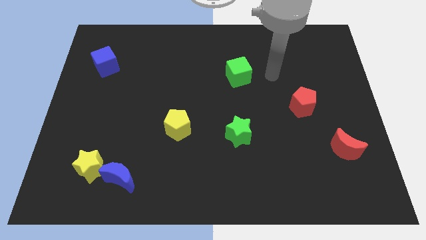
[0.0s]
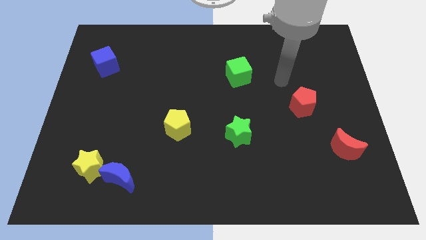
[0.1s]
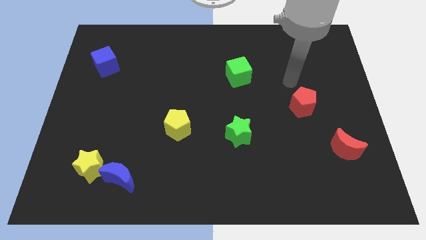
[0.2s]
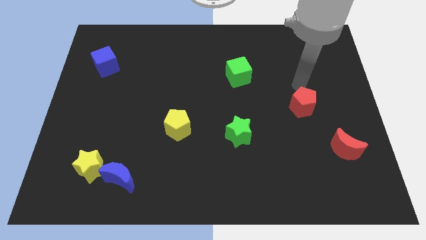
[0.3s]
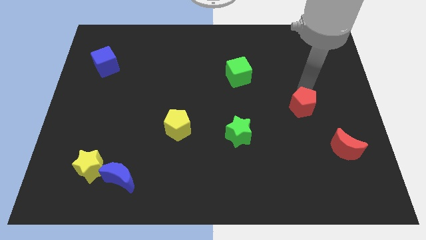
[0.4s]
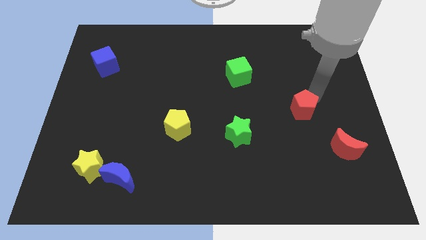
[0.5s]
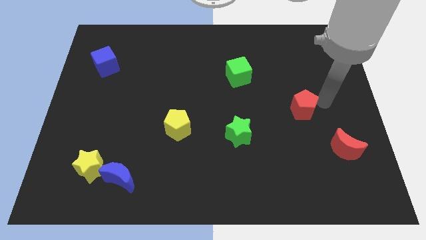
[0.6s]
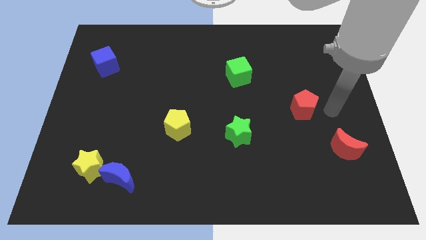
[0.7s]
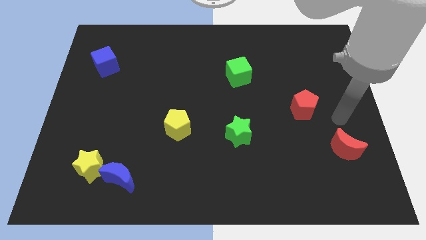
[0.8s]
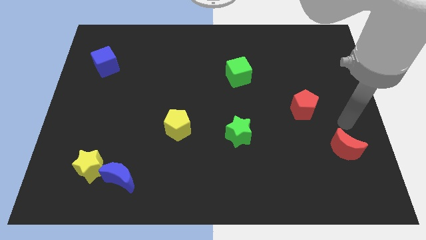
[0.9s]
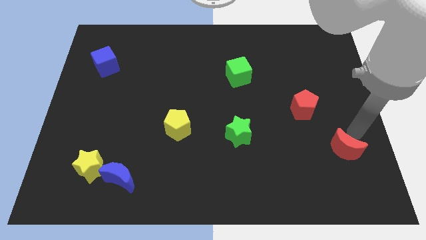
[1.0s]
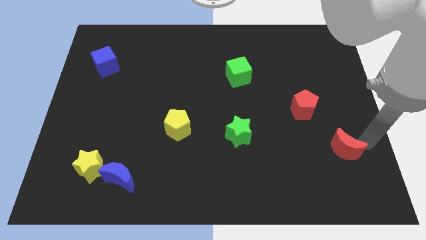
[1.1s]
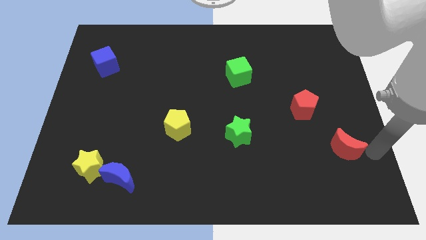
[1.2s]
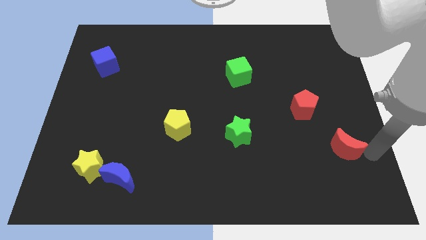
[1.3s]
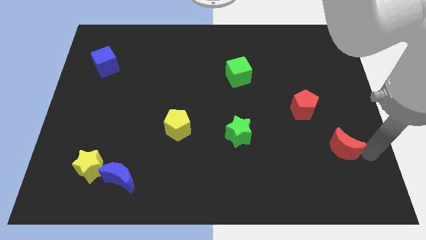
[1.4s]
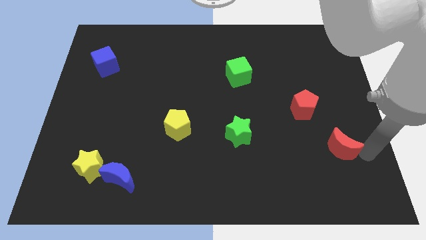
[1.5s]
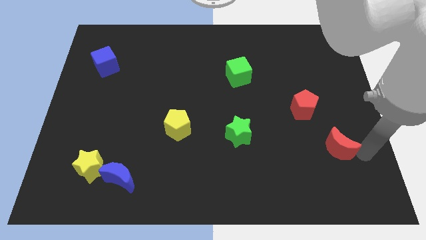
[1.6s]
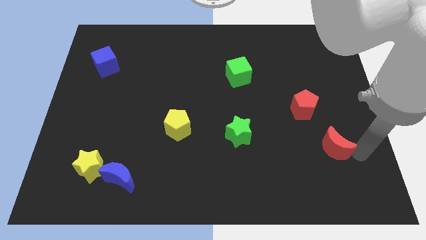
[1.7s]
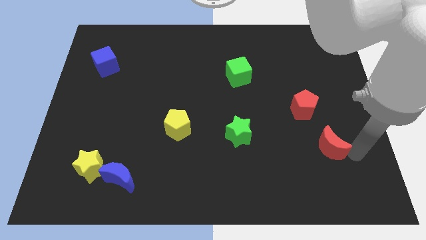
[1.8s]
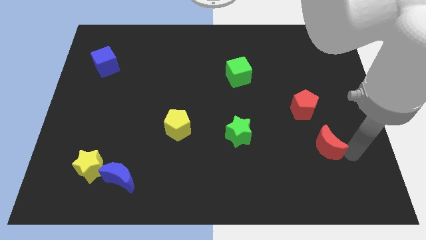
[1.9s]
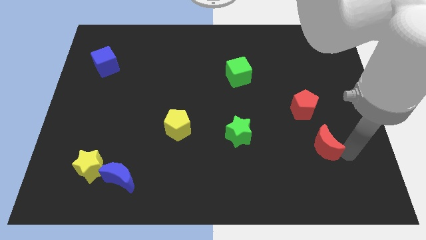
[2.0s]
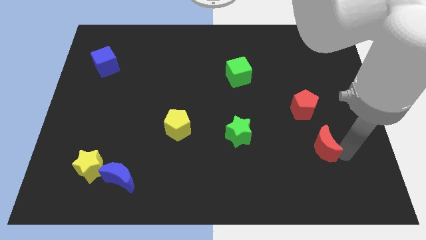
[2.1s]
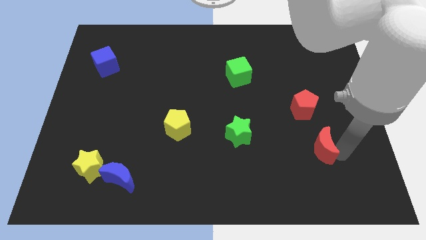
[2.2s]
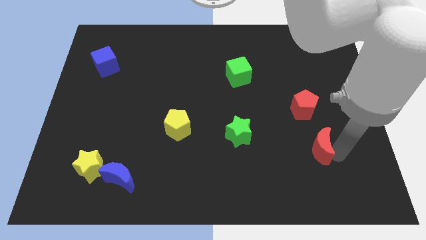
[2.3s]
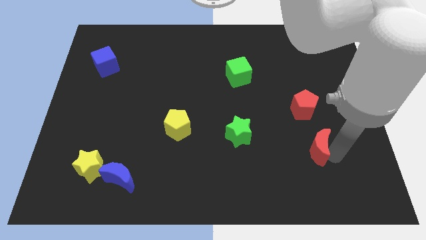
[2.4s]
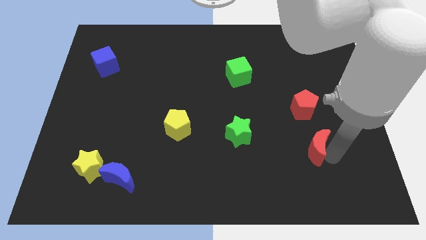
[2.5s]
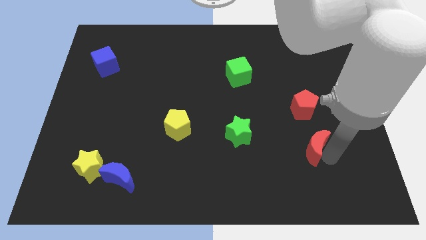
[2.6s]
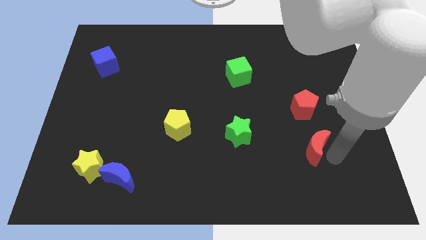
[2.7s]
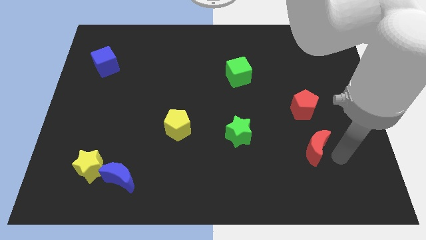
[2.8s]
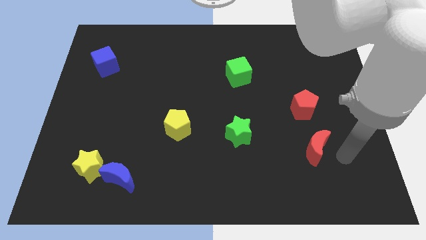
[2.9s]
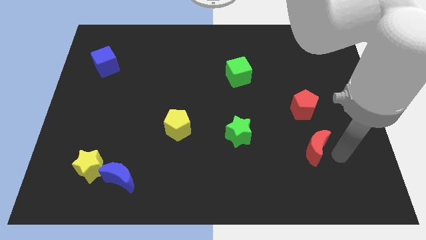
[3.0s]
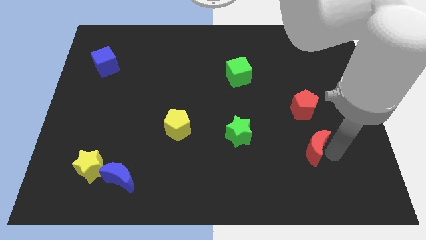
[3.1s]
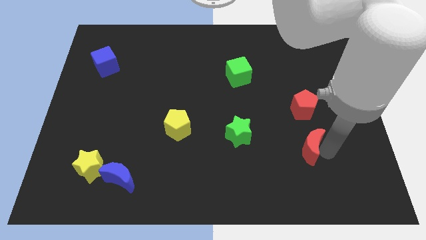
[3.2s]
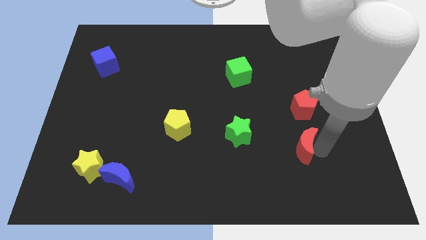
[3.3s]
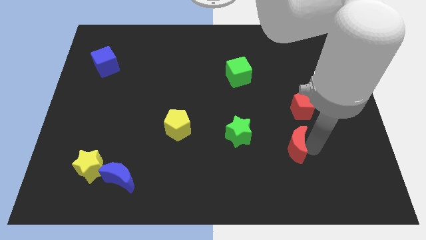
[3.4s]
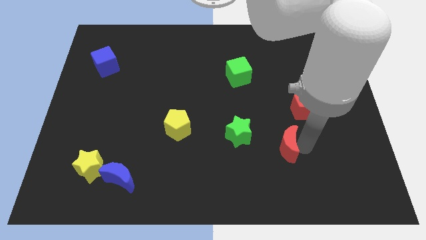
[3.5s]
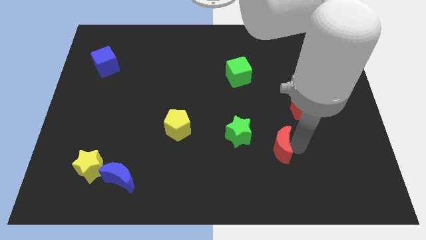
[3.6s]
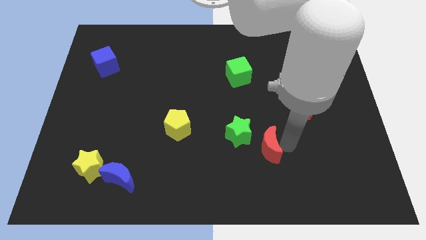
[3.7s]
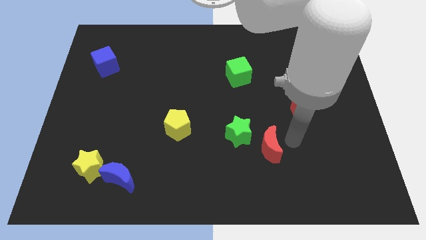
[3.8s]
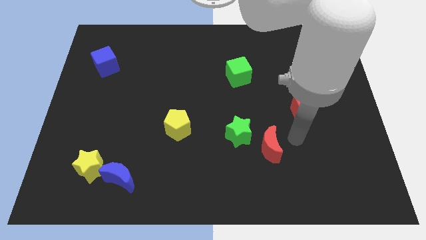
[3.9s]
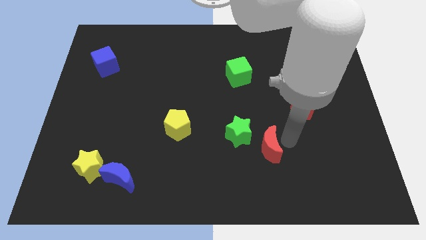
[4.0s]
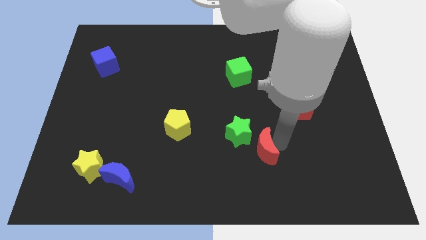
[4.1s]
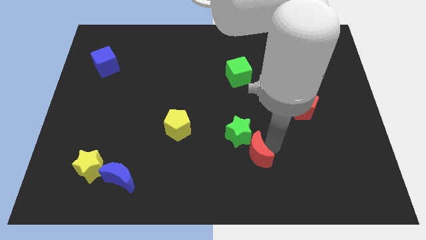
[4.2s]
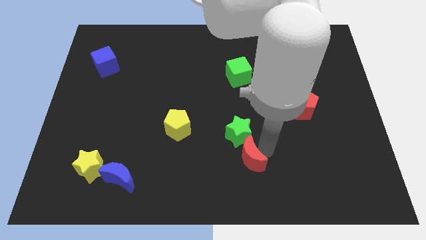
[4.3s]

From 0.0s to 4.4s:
push the red moon left

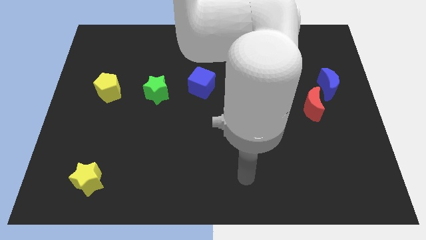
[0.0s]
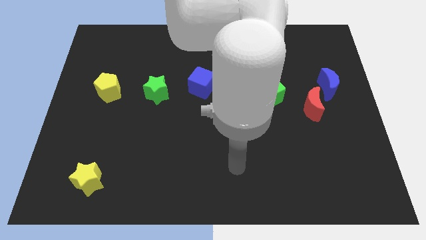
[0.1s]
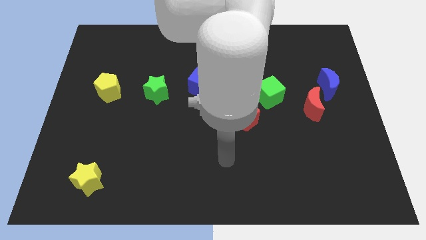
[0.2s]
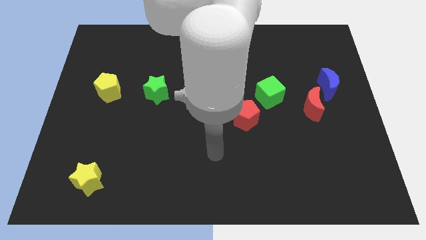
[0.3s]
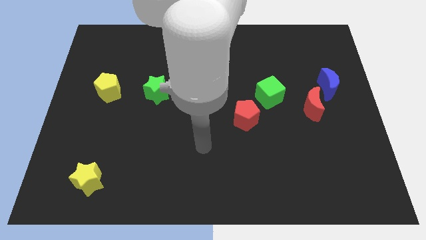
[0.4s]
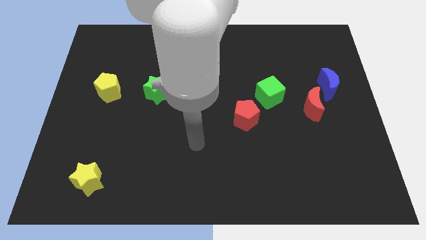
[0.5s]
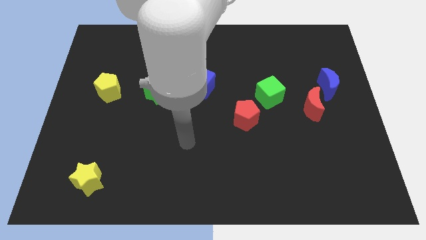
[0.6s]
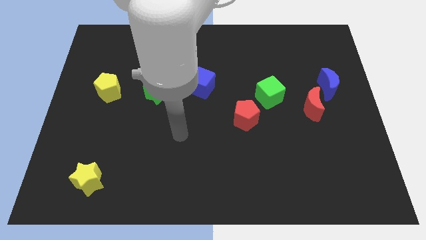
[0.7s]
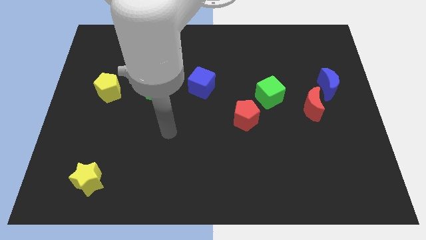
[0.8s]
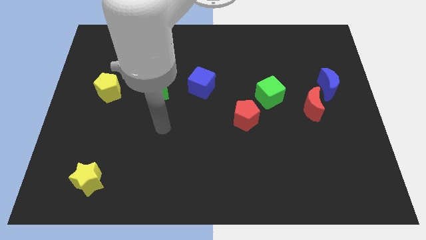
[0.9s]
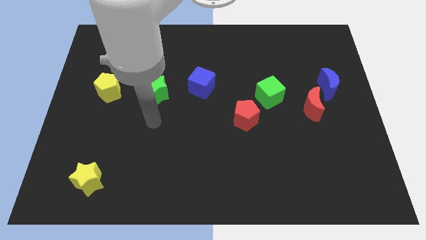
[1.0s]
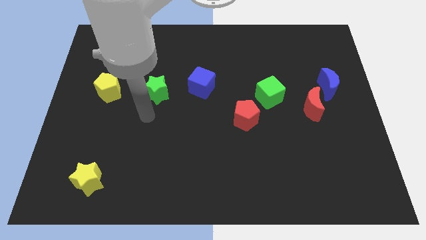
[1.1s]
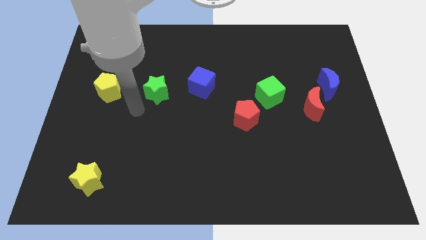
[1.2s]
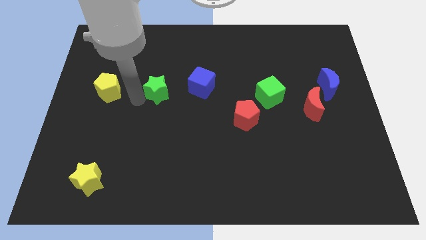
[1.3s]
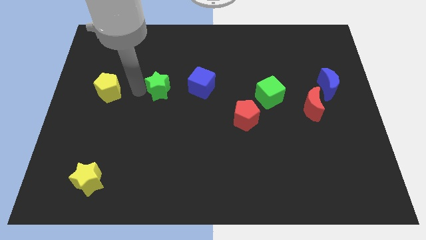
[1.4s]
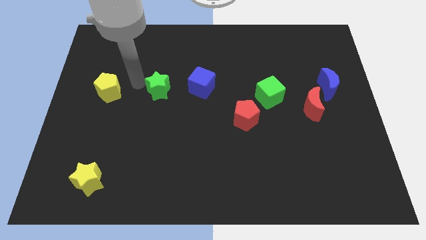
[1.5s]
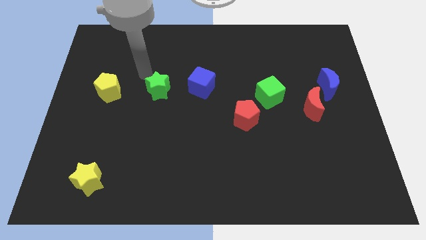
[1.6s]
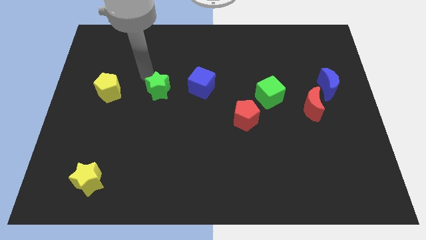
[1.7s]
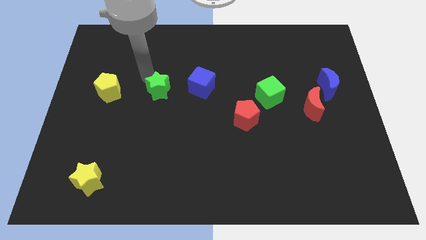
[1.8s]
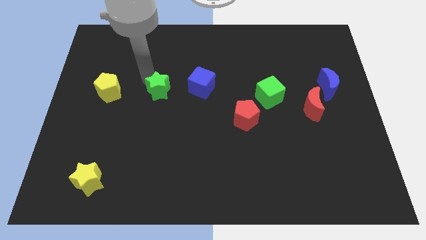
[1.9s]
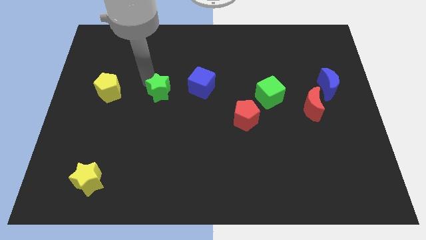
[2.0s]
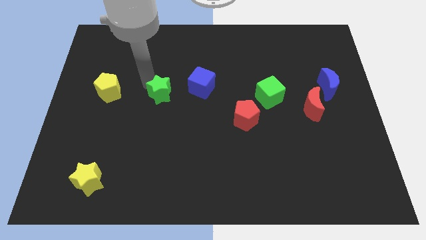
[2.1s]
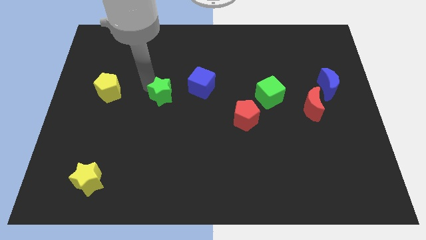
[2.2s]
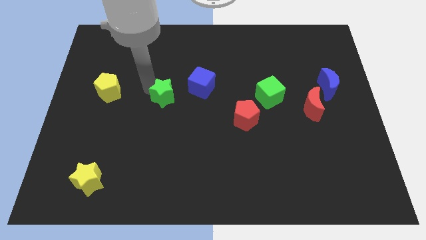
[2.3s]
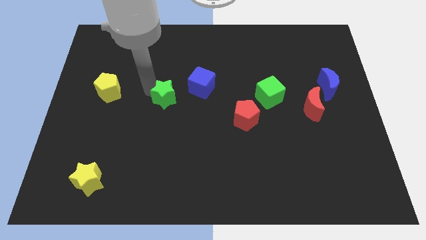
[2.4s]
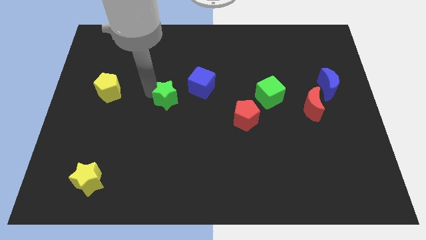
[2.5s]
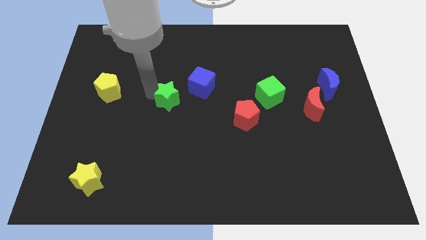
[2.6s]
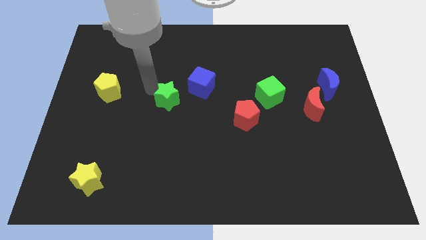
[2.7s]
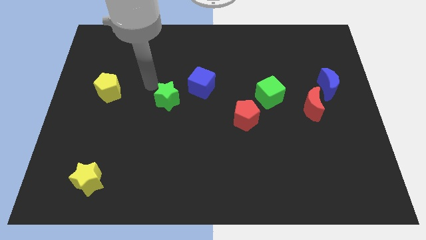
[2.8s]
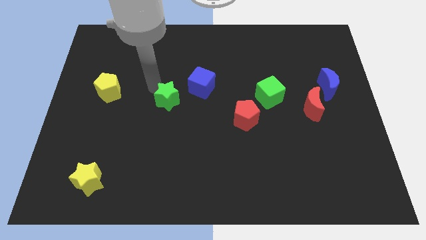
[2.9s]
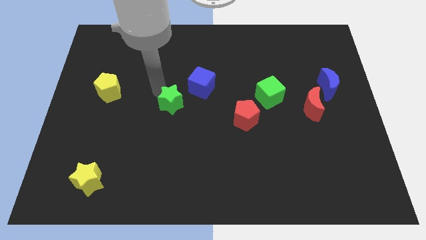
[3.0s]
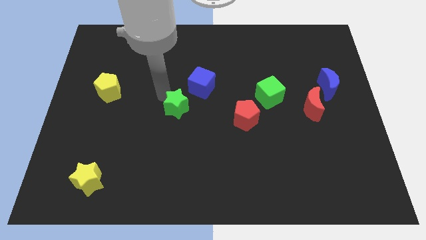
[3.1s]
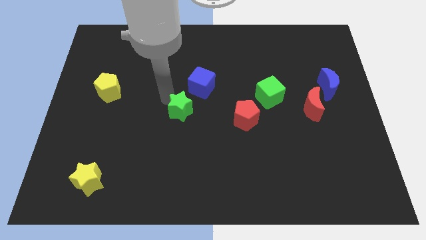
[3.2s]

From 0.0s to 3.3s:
slide the green star diagonally down and right a bit

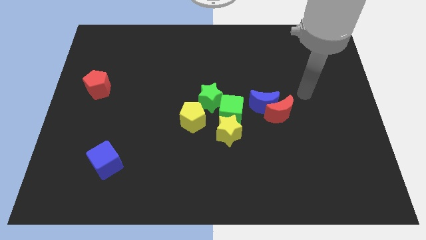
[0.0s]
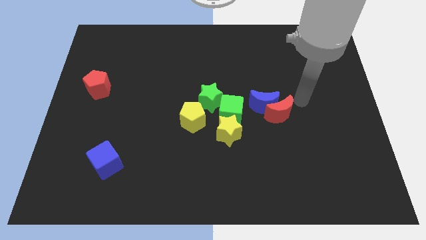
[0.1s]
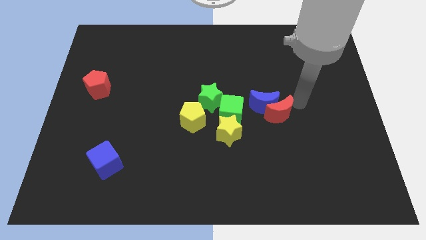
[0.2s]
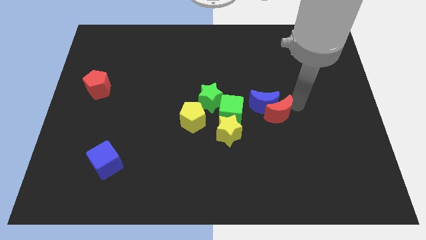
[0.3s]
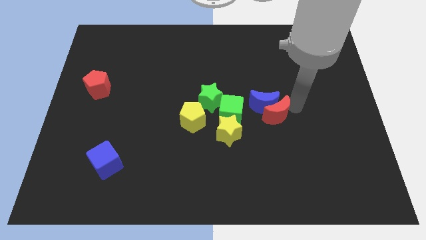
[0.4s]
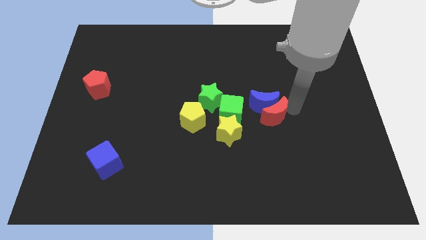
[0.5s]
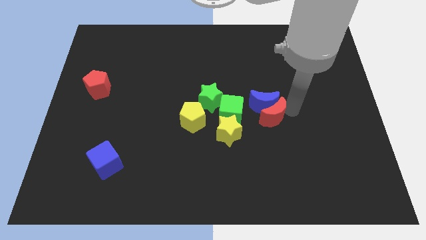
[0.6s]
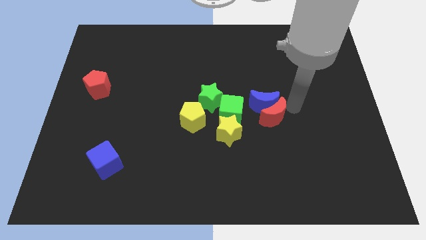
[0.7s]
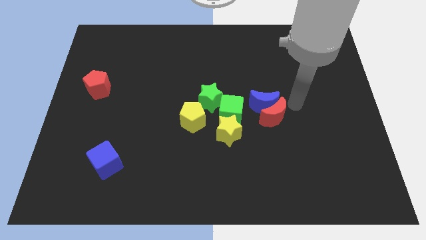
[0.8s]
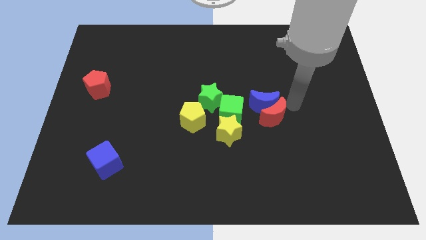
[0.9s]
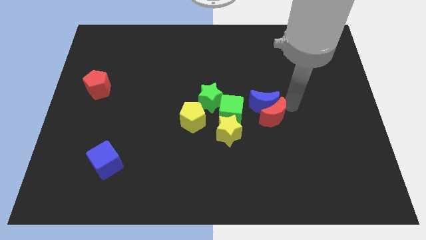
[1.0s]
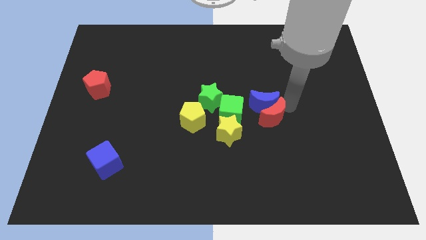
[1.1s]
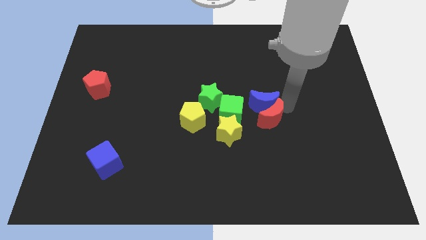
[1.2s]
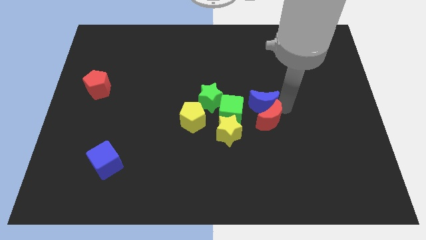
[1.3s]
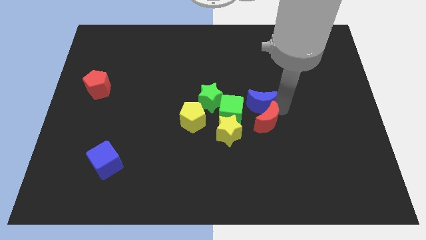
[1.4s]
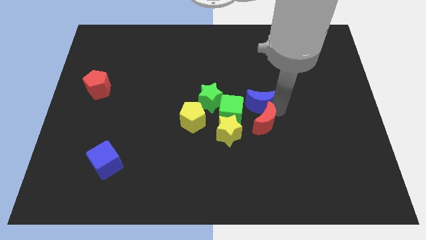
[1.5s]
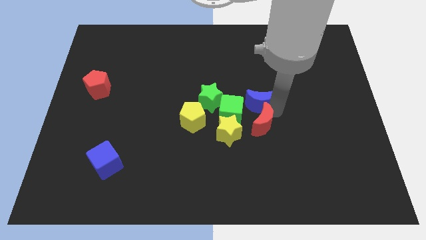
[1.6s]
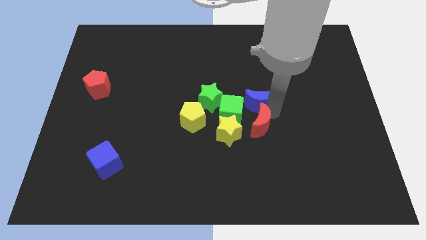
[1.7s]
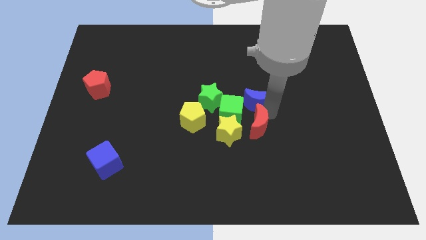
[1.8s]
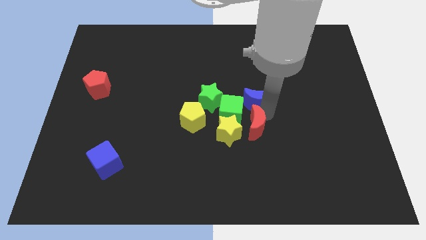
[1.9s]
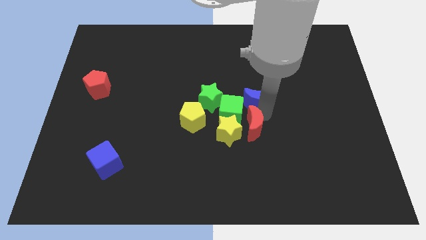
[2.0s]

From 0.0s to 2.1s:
slightly push the red moon diagonally downwards and left
